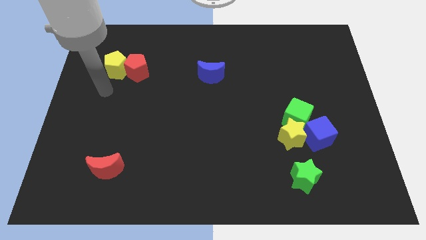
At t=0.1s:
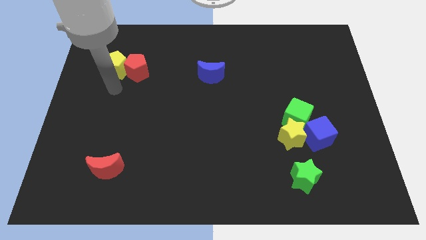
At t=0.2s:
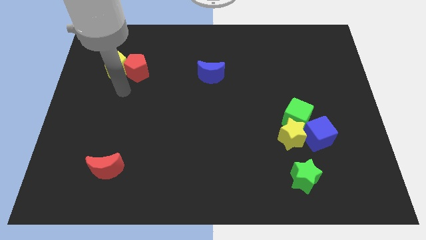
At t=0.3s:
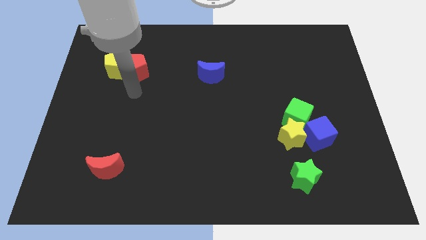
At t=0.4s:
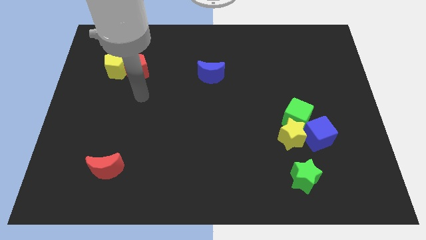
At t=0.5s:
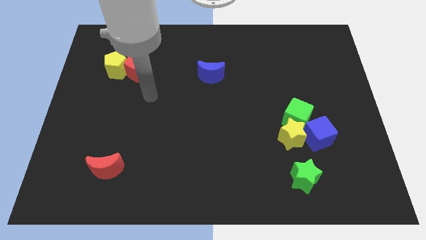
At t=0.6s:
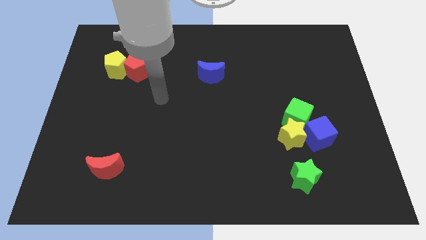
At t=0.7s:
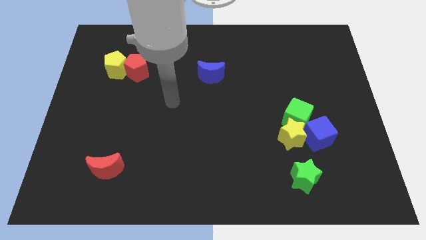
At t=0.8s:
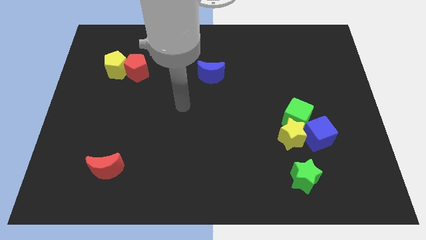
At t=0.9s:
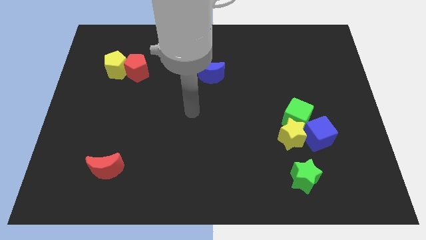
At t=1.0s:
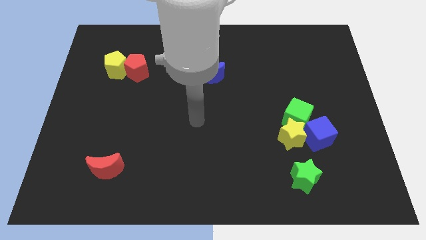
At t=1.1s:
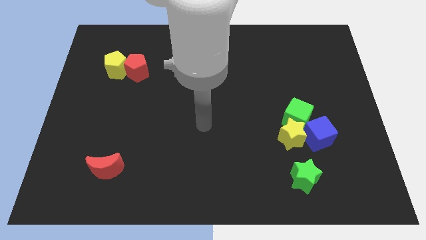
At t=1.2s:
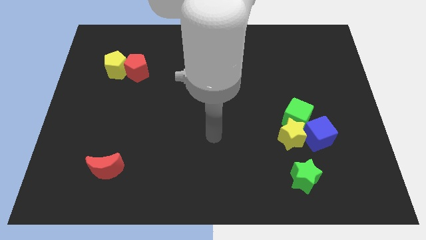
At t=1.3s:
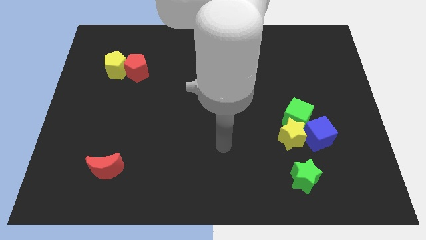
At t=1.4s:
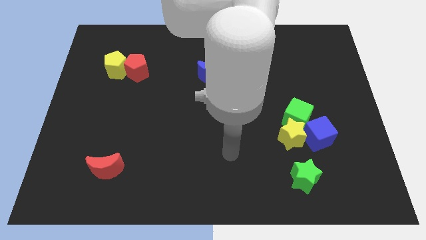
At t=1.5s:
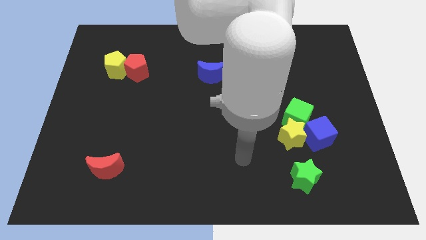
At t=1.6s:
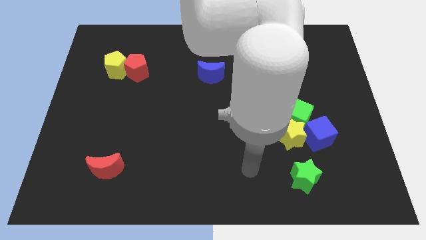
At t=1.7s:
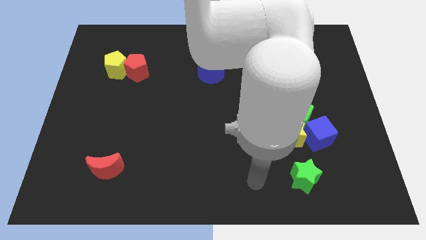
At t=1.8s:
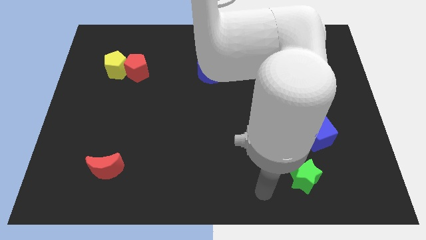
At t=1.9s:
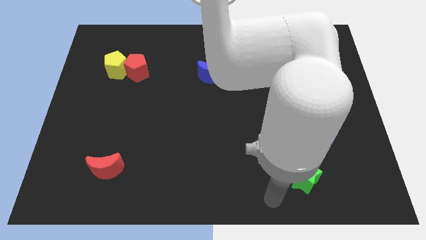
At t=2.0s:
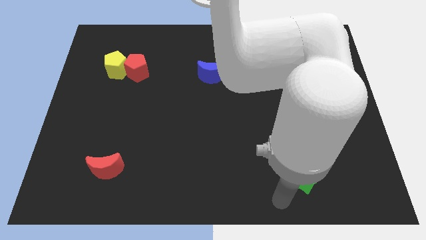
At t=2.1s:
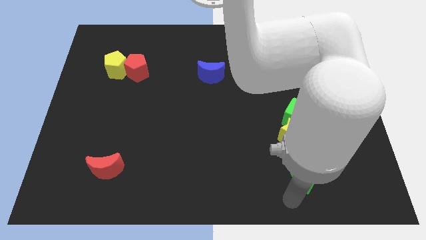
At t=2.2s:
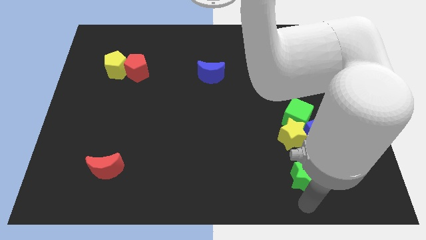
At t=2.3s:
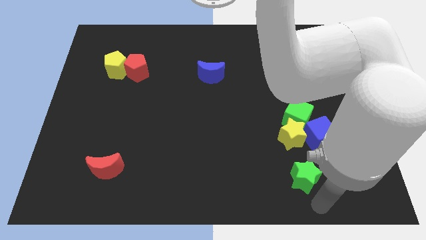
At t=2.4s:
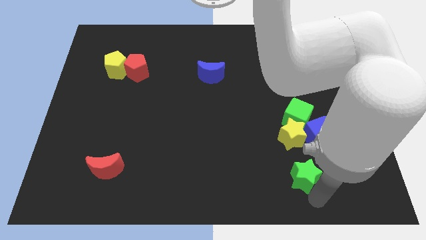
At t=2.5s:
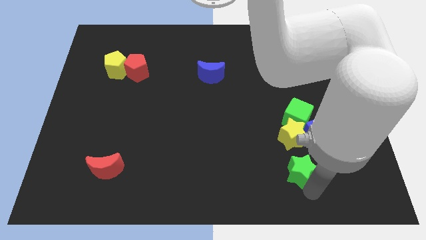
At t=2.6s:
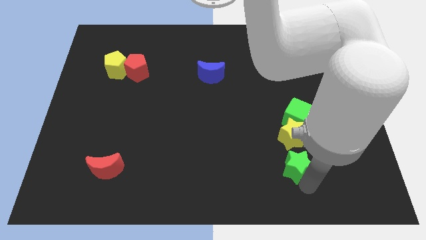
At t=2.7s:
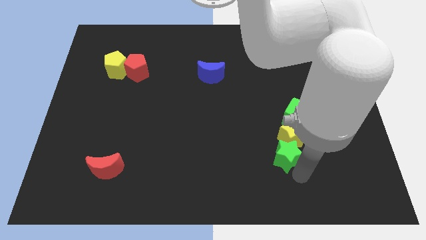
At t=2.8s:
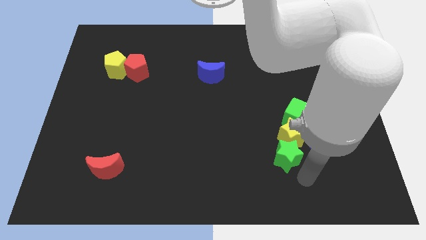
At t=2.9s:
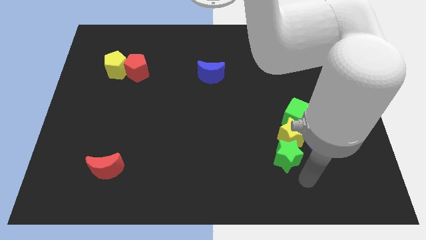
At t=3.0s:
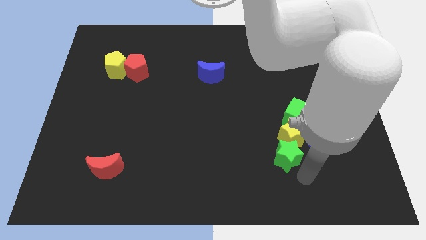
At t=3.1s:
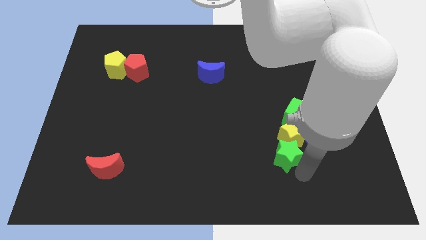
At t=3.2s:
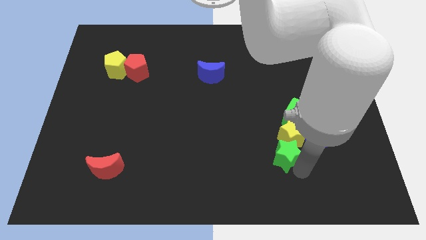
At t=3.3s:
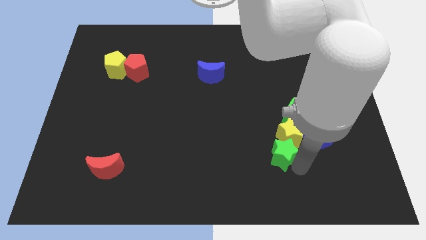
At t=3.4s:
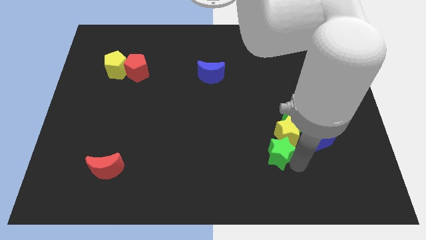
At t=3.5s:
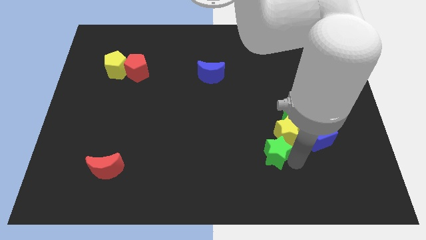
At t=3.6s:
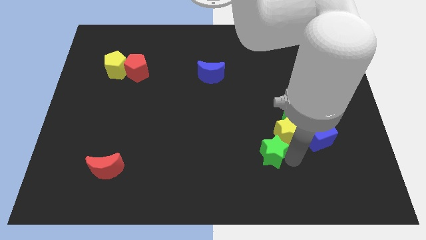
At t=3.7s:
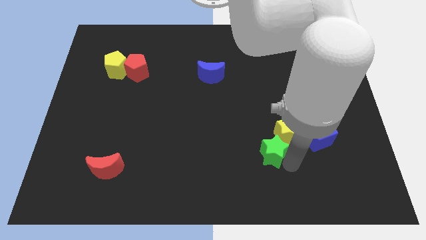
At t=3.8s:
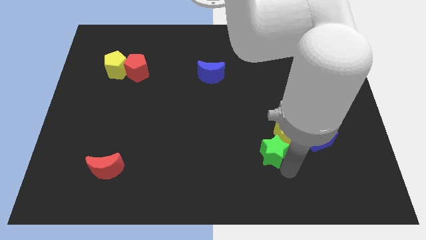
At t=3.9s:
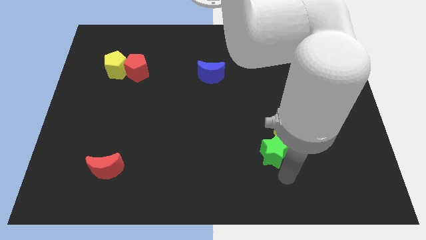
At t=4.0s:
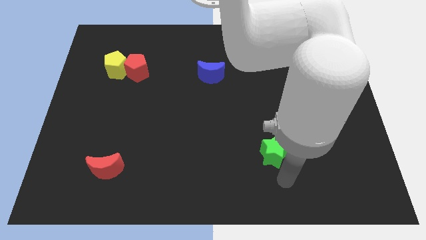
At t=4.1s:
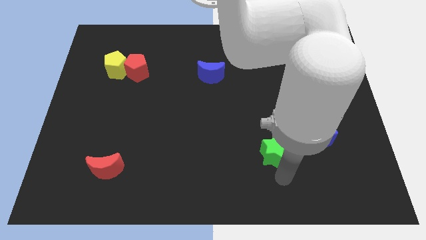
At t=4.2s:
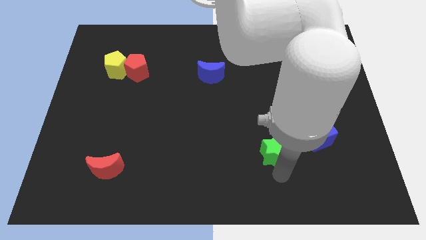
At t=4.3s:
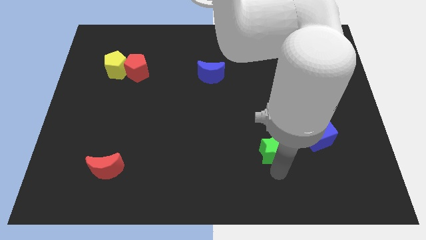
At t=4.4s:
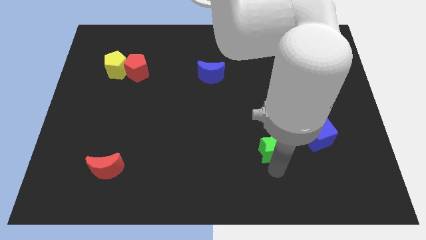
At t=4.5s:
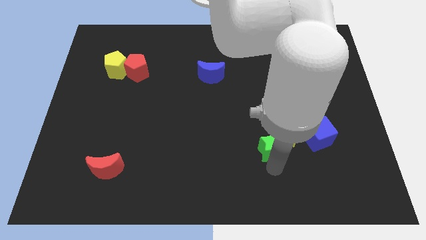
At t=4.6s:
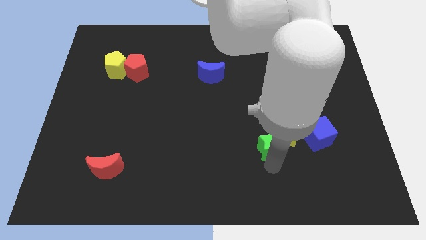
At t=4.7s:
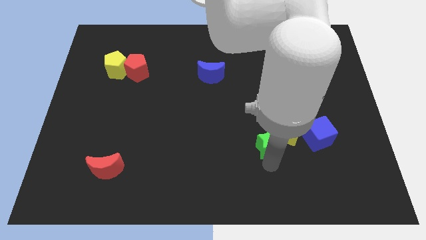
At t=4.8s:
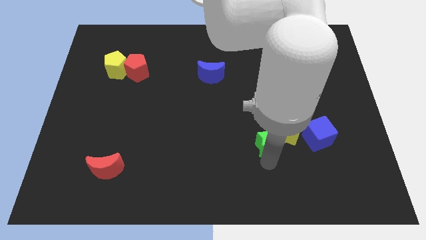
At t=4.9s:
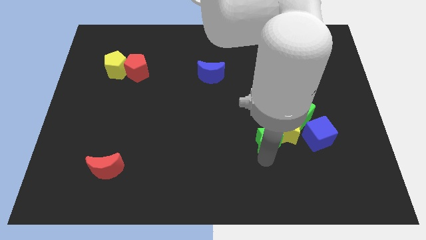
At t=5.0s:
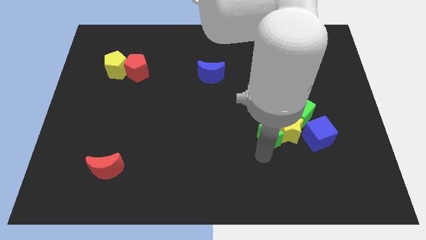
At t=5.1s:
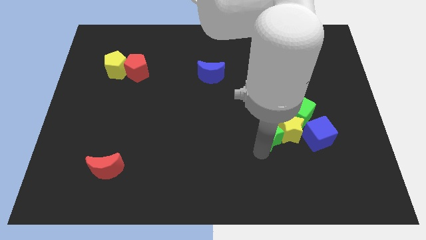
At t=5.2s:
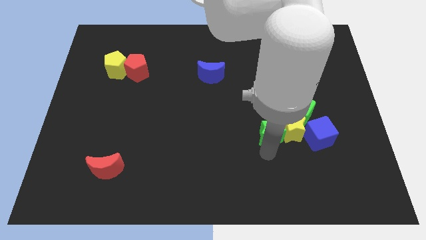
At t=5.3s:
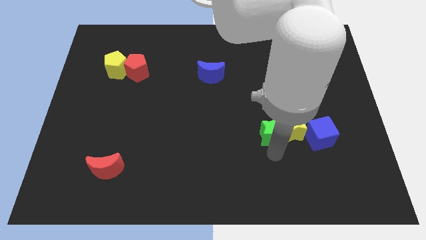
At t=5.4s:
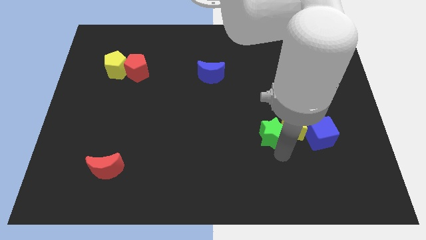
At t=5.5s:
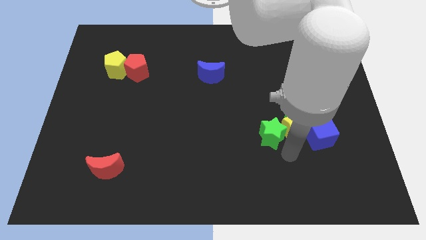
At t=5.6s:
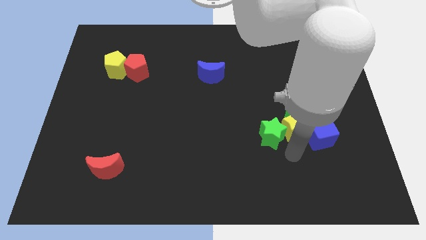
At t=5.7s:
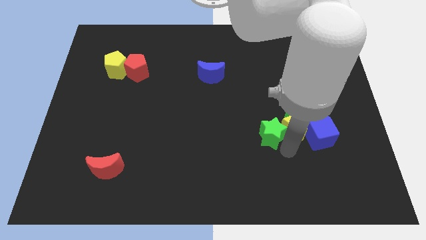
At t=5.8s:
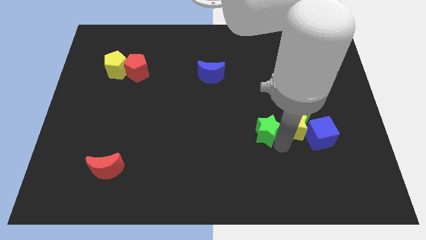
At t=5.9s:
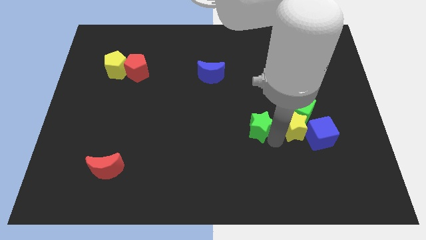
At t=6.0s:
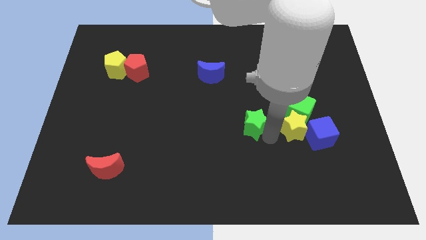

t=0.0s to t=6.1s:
put the green star to the middle of the board
